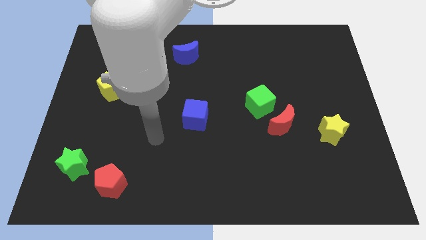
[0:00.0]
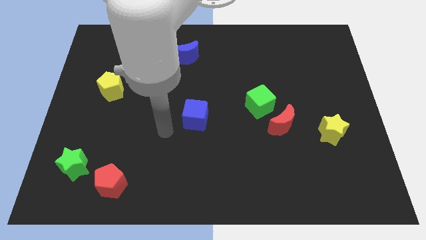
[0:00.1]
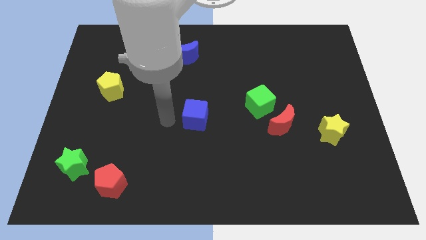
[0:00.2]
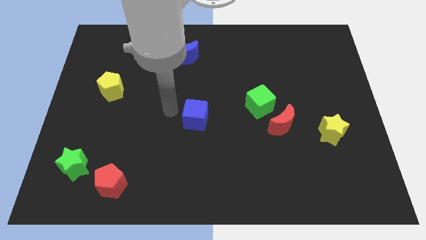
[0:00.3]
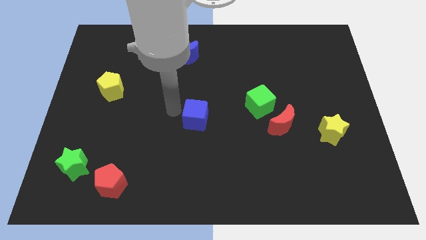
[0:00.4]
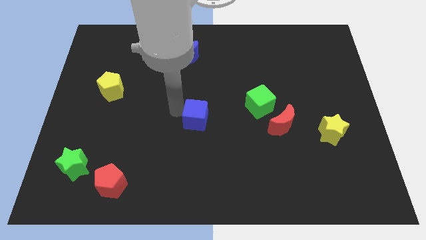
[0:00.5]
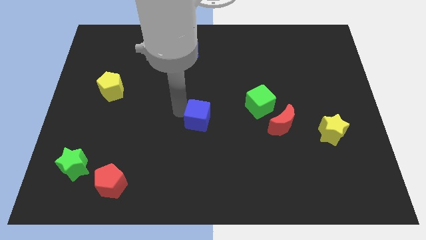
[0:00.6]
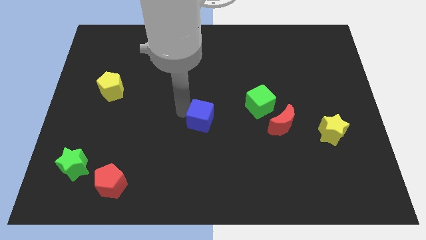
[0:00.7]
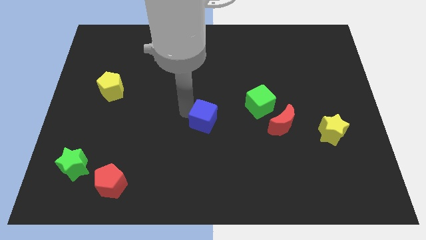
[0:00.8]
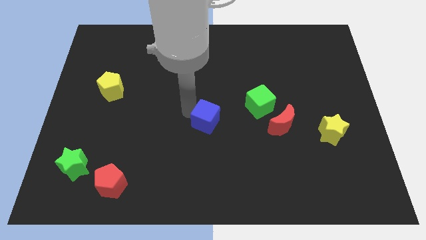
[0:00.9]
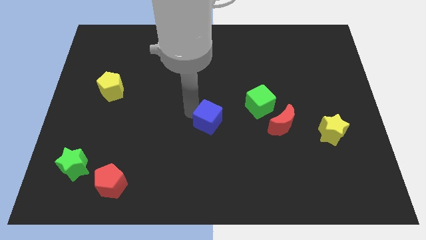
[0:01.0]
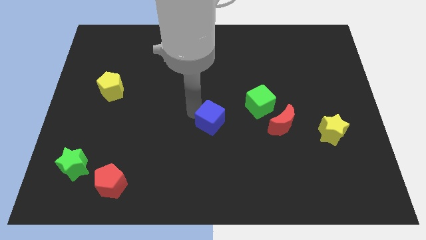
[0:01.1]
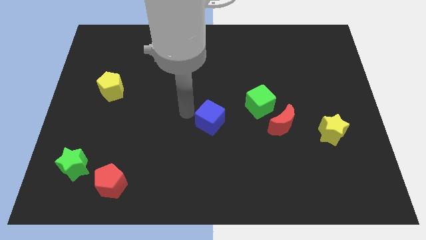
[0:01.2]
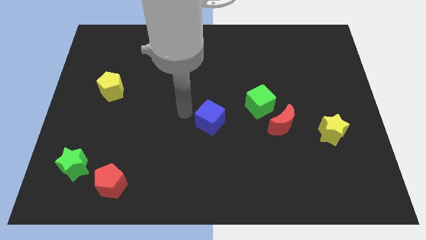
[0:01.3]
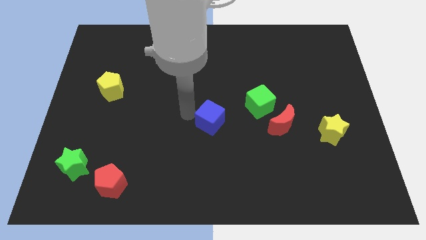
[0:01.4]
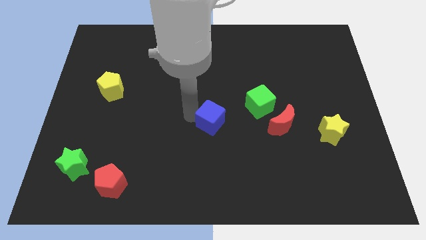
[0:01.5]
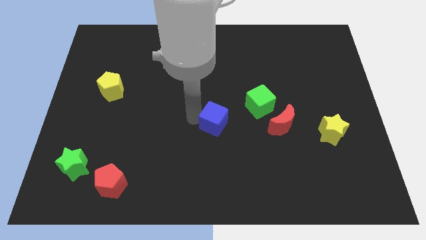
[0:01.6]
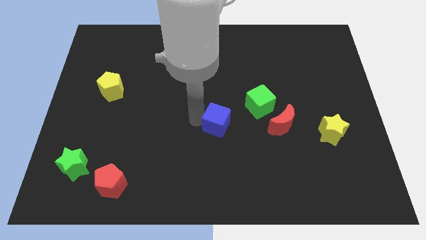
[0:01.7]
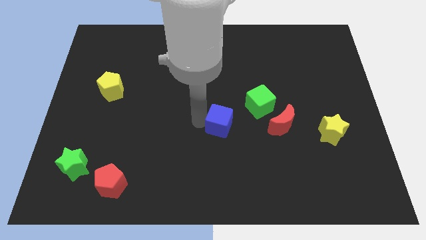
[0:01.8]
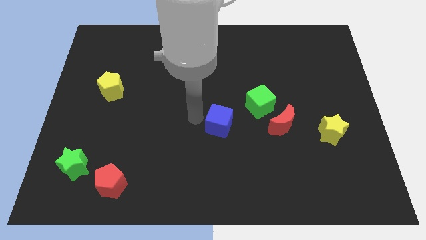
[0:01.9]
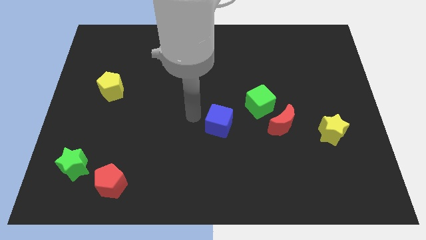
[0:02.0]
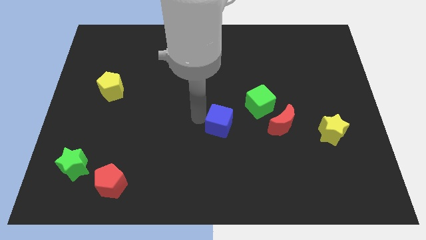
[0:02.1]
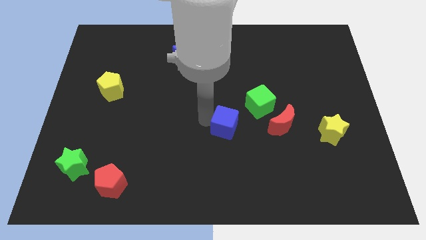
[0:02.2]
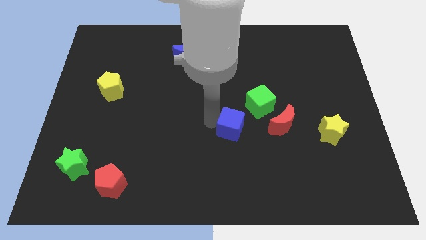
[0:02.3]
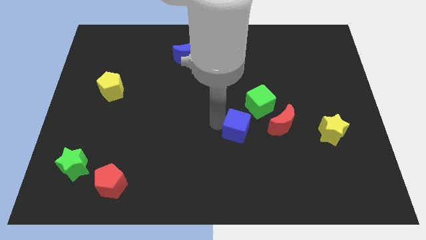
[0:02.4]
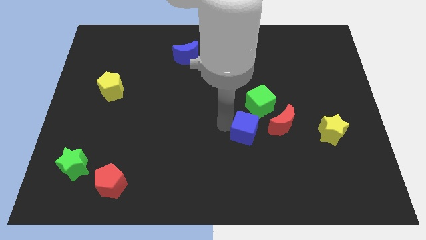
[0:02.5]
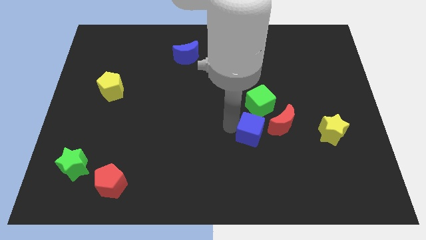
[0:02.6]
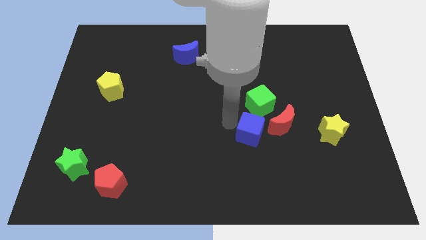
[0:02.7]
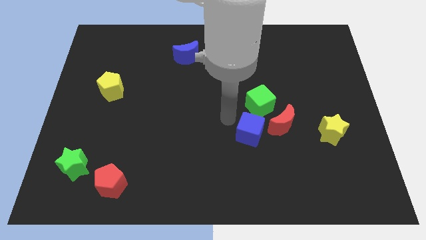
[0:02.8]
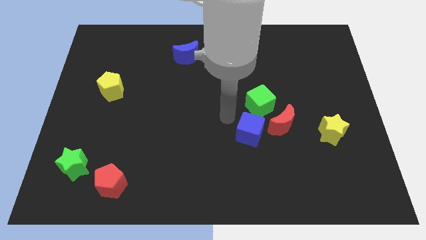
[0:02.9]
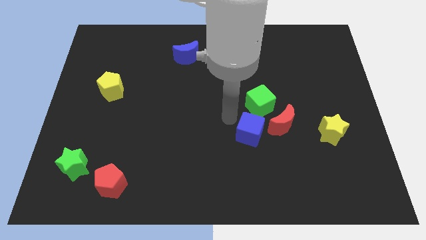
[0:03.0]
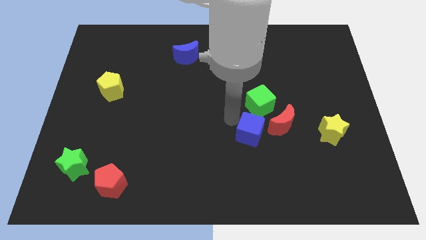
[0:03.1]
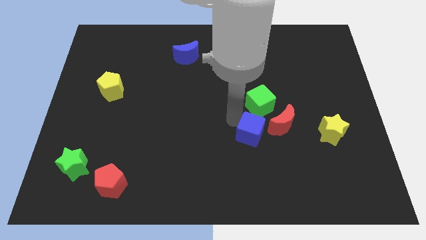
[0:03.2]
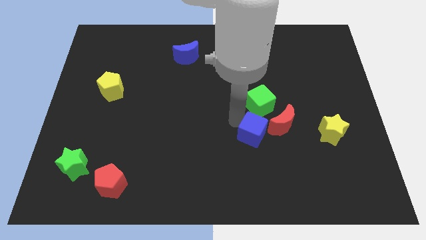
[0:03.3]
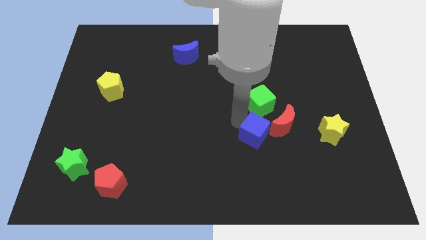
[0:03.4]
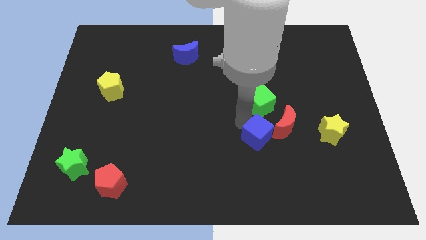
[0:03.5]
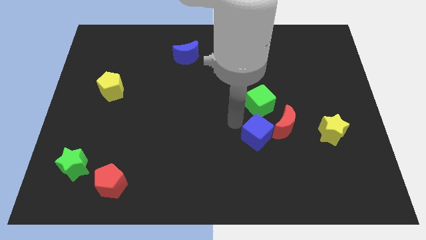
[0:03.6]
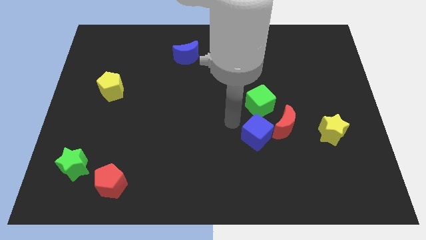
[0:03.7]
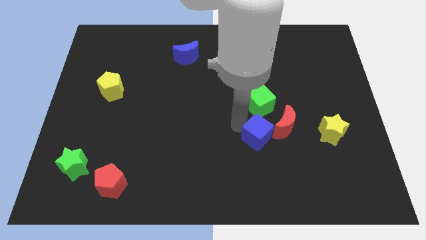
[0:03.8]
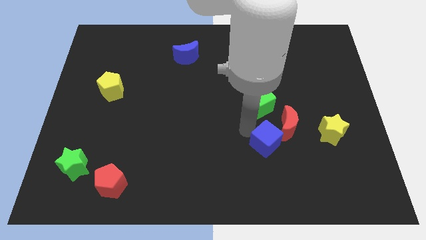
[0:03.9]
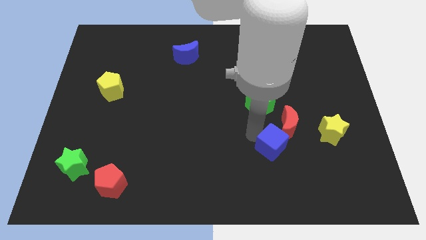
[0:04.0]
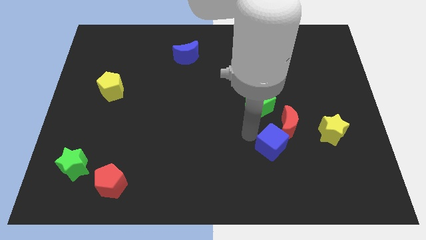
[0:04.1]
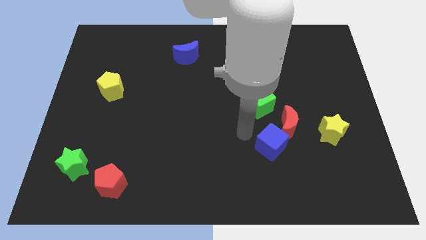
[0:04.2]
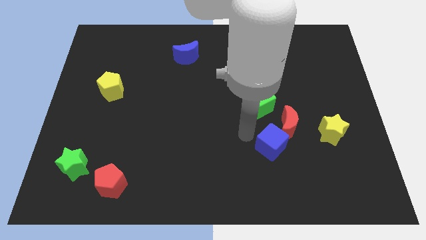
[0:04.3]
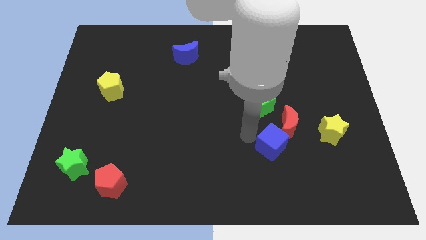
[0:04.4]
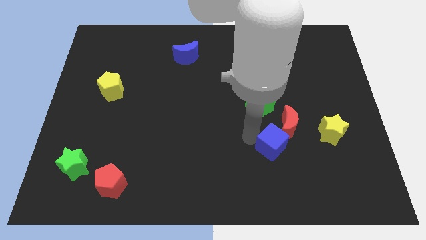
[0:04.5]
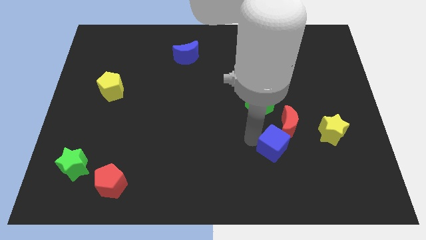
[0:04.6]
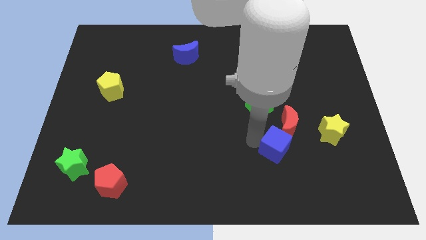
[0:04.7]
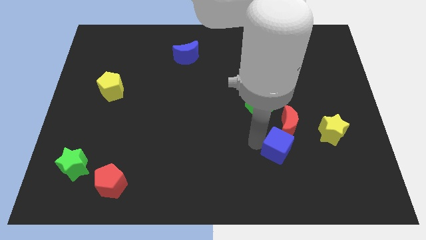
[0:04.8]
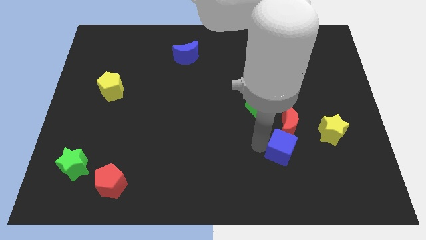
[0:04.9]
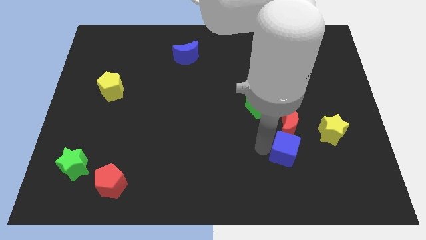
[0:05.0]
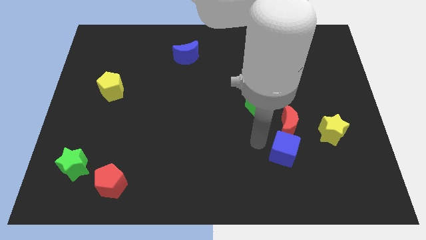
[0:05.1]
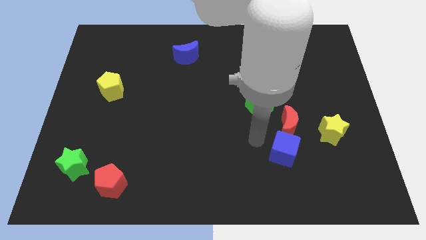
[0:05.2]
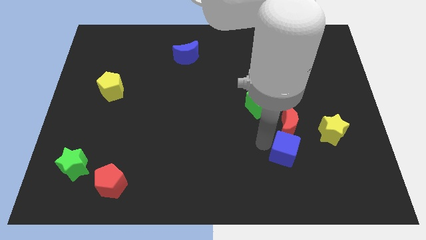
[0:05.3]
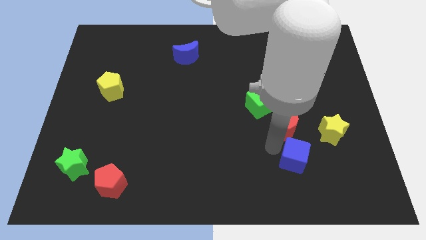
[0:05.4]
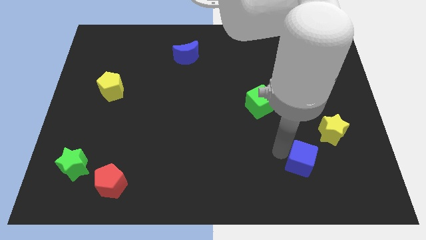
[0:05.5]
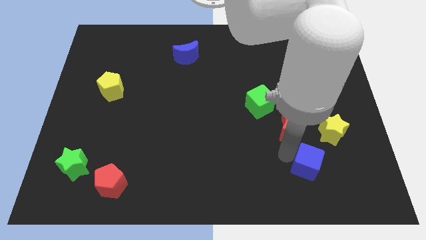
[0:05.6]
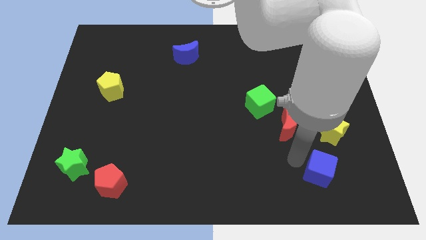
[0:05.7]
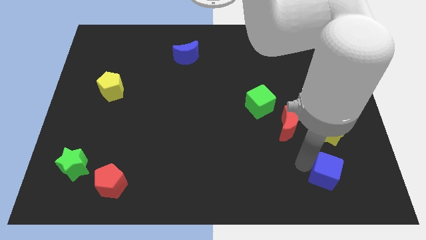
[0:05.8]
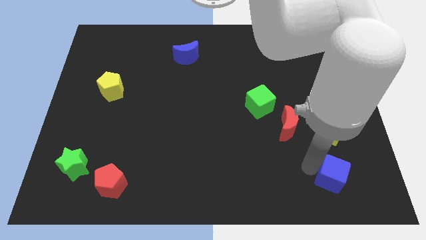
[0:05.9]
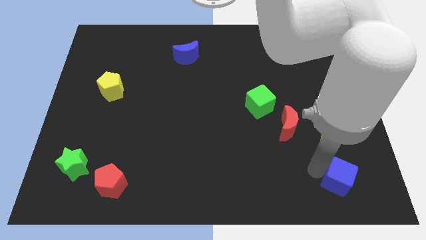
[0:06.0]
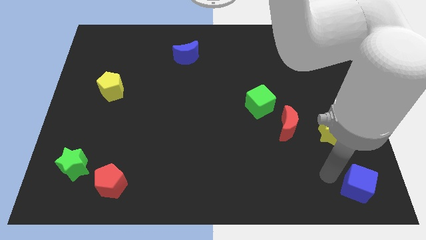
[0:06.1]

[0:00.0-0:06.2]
put the blue cube to the lower right corner
